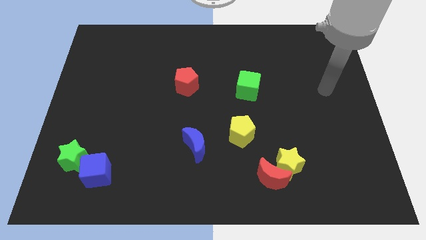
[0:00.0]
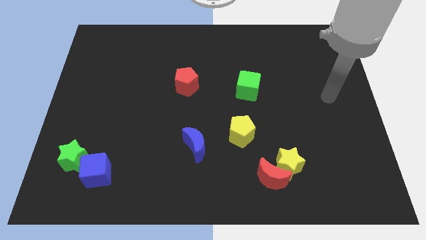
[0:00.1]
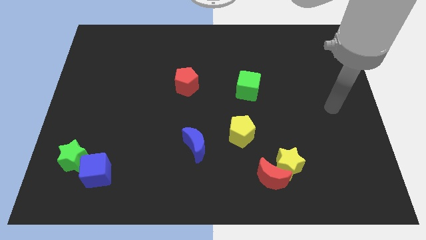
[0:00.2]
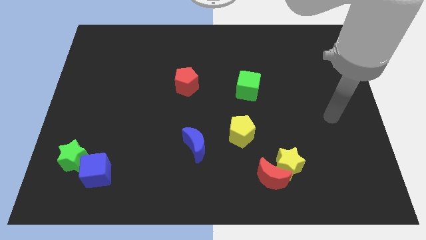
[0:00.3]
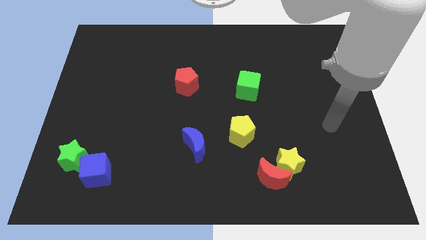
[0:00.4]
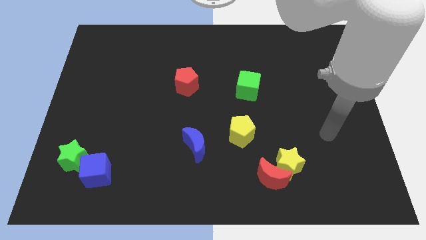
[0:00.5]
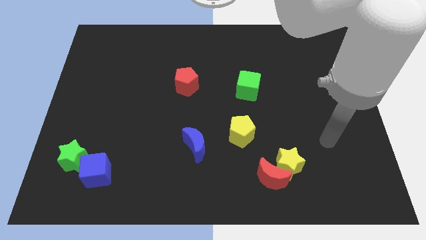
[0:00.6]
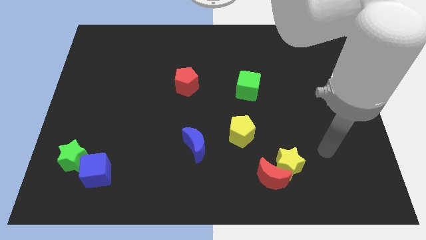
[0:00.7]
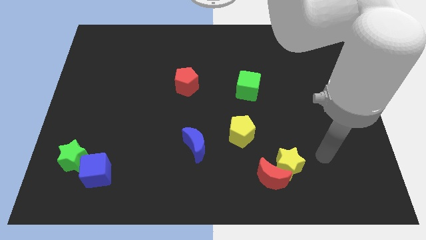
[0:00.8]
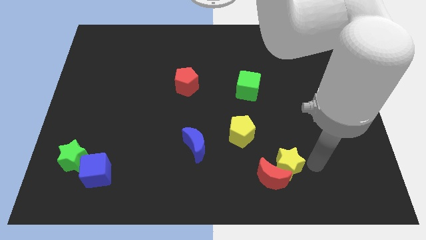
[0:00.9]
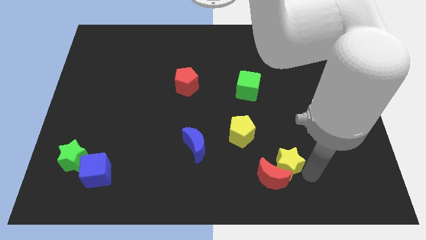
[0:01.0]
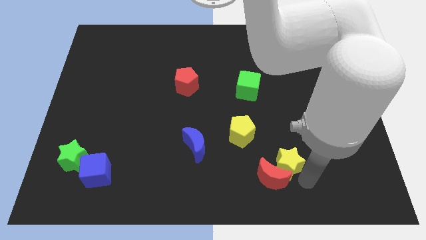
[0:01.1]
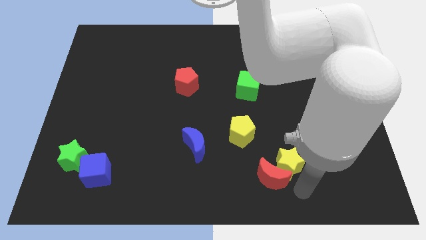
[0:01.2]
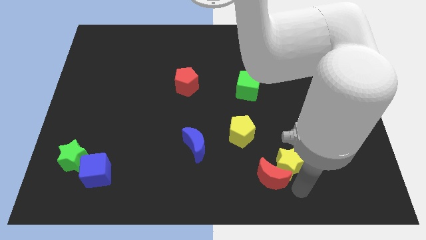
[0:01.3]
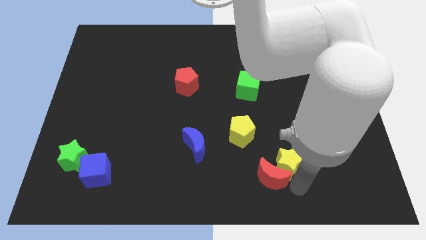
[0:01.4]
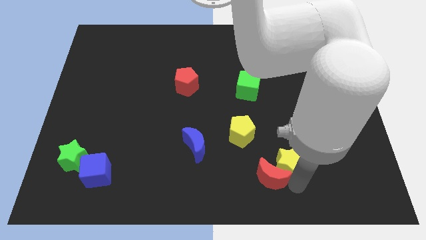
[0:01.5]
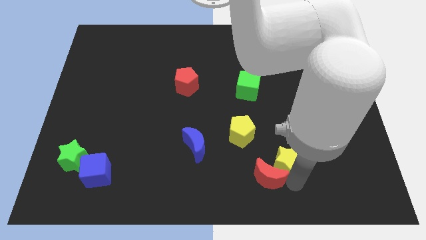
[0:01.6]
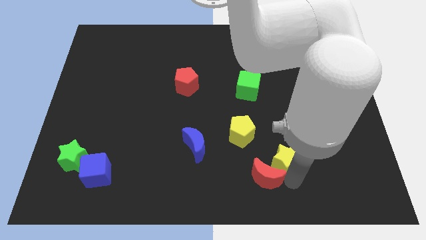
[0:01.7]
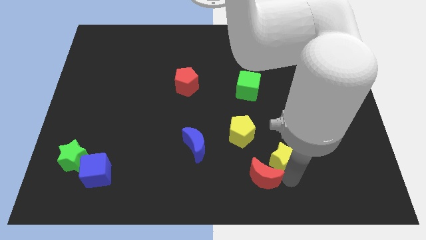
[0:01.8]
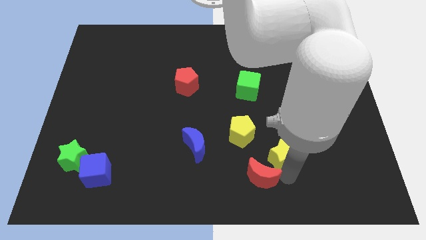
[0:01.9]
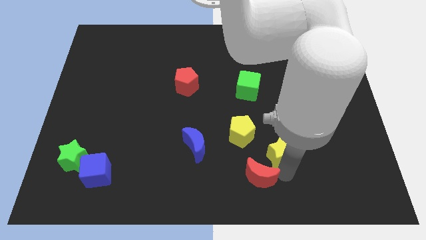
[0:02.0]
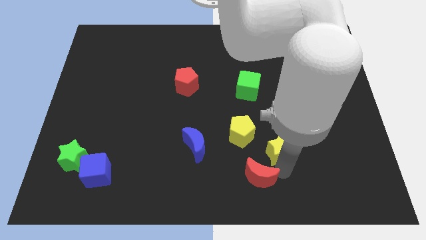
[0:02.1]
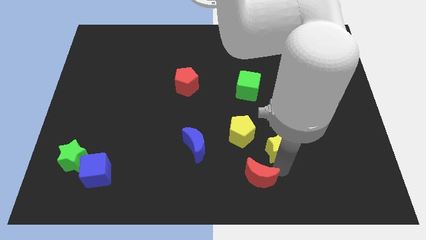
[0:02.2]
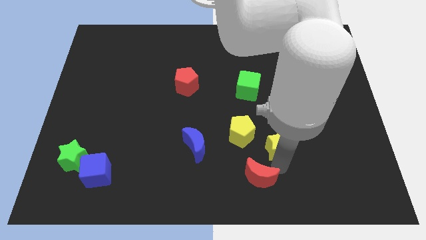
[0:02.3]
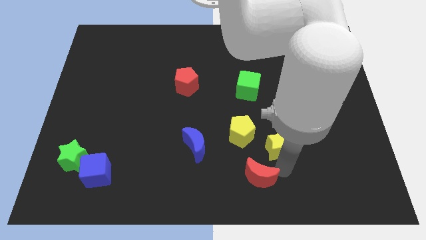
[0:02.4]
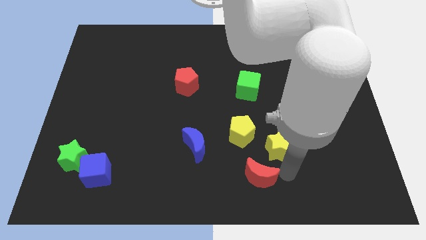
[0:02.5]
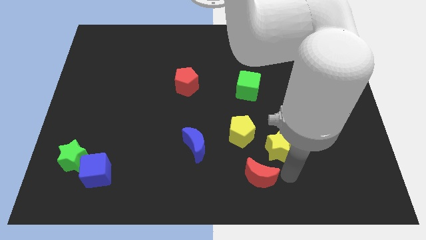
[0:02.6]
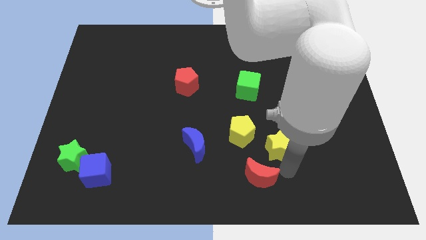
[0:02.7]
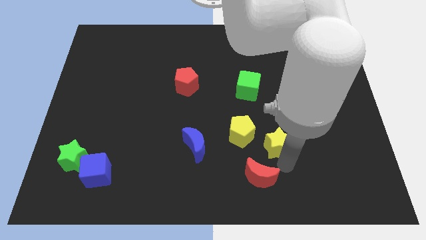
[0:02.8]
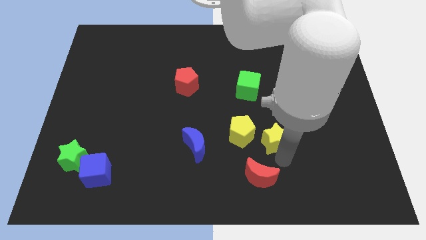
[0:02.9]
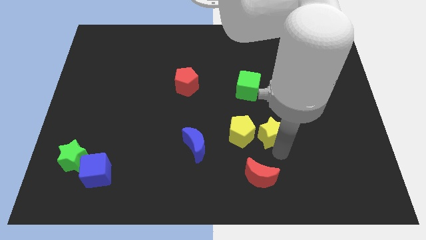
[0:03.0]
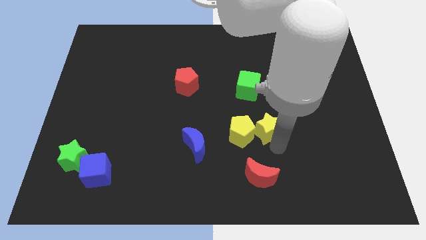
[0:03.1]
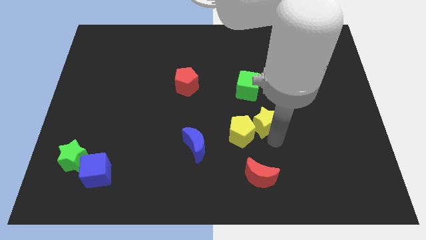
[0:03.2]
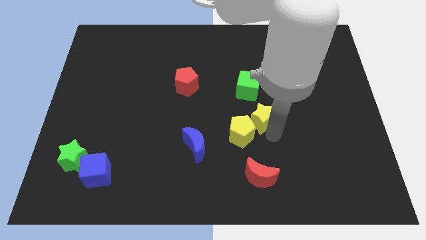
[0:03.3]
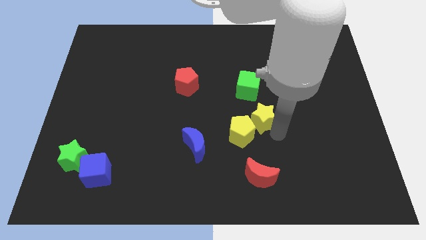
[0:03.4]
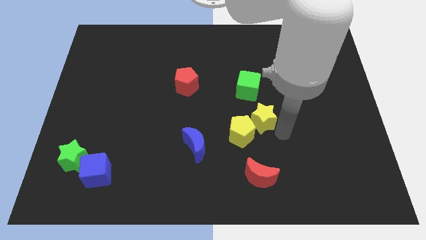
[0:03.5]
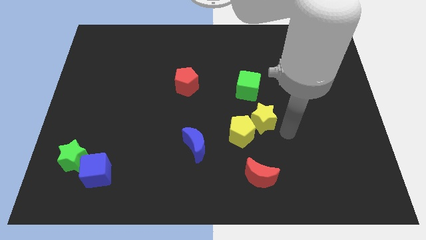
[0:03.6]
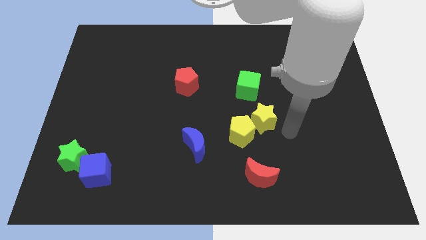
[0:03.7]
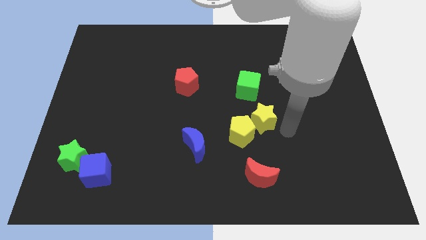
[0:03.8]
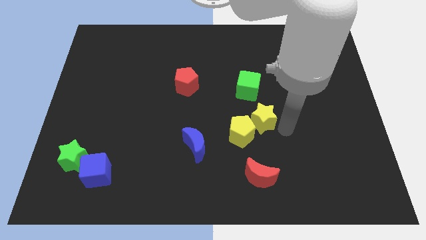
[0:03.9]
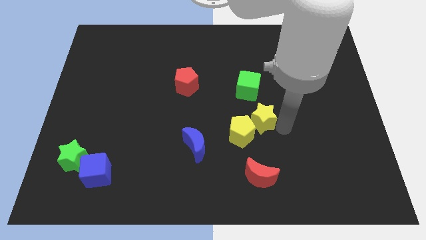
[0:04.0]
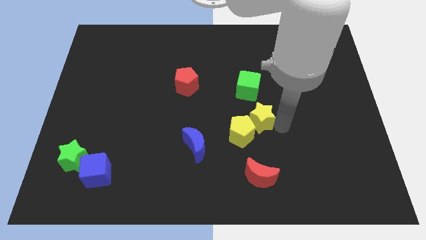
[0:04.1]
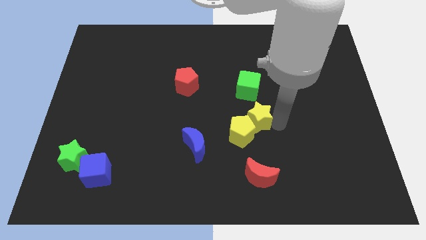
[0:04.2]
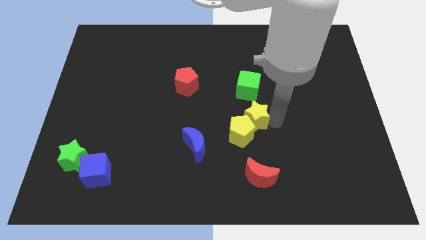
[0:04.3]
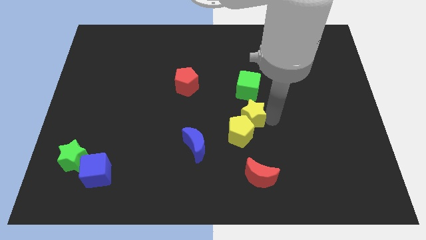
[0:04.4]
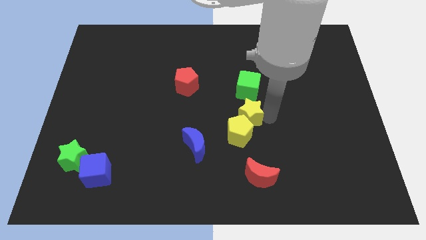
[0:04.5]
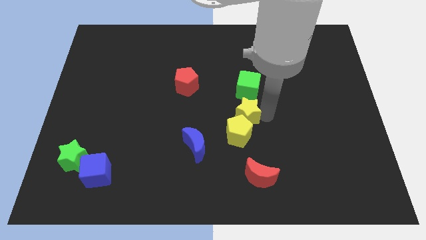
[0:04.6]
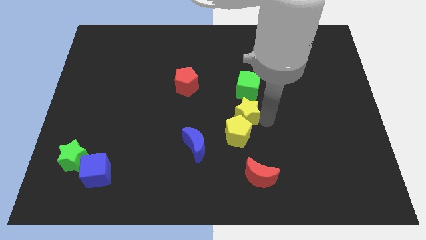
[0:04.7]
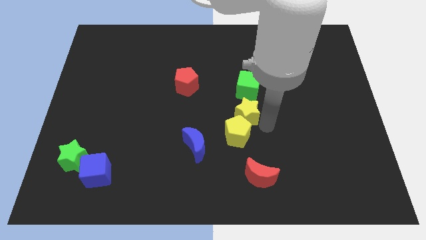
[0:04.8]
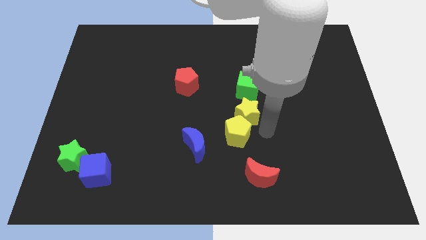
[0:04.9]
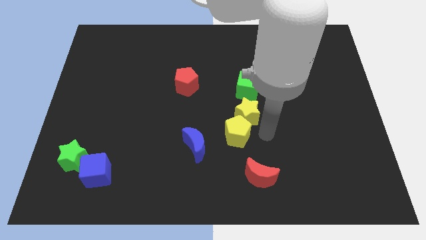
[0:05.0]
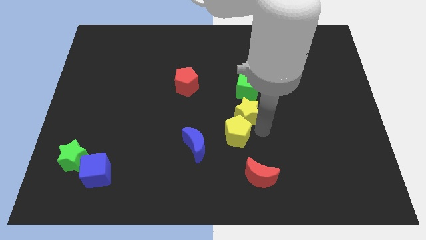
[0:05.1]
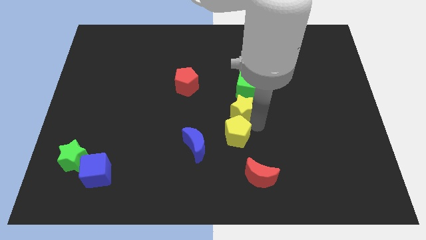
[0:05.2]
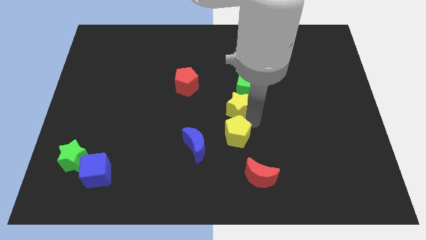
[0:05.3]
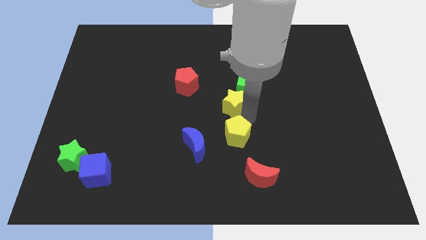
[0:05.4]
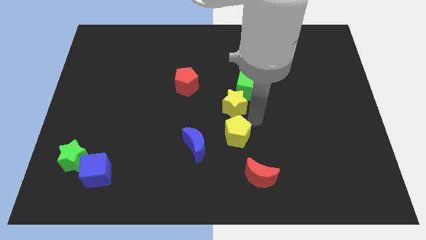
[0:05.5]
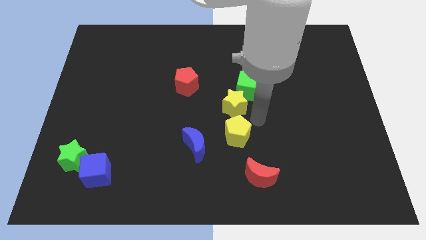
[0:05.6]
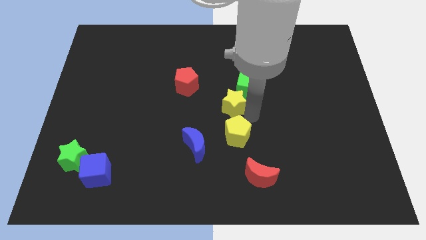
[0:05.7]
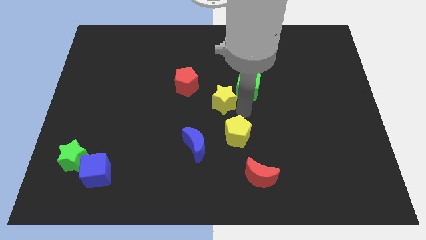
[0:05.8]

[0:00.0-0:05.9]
push the yellow star to the left side of the green cube
